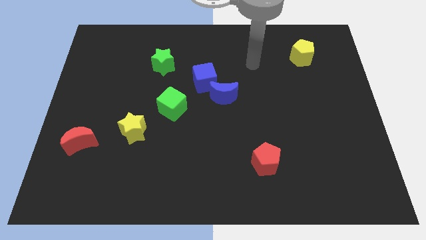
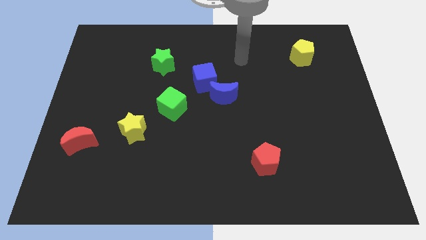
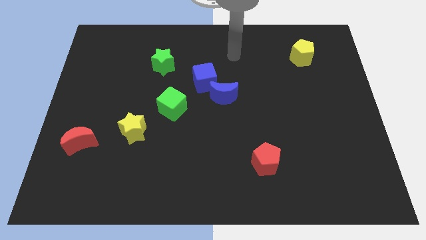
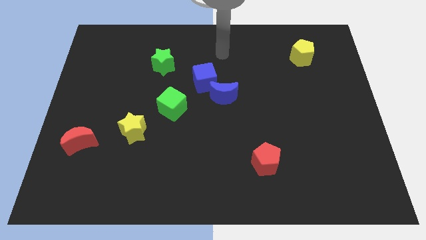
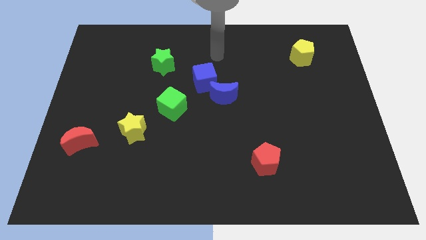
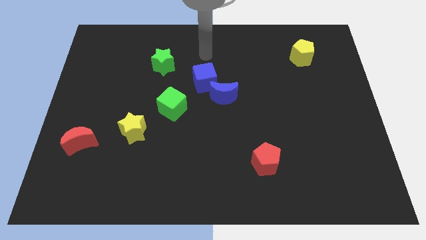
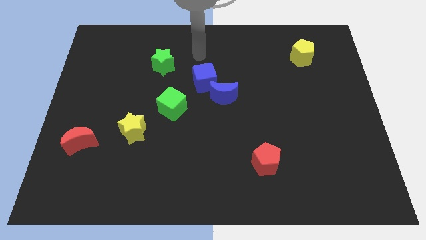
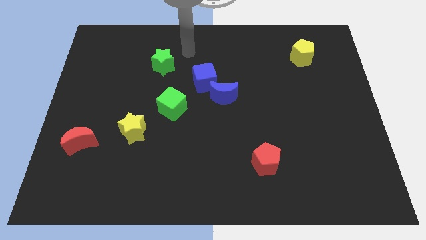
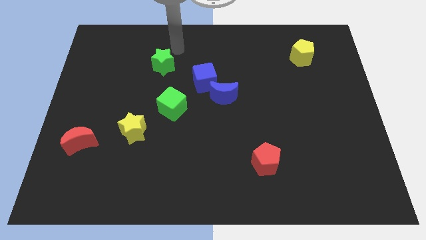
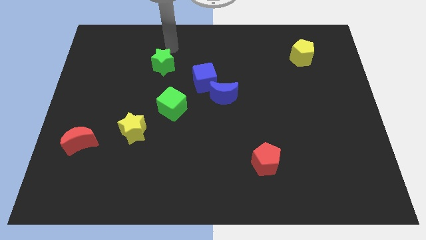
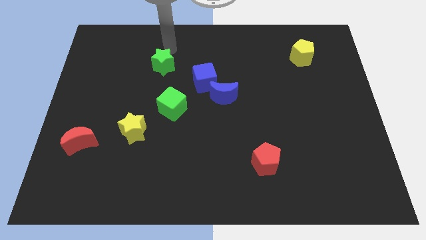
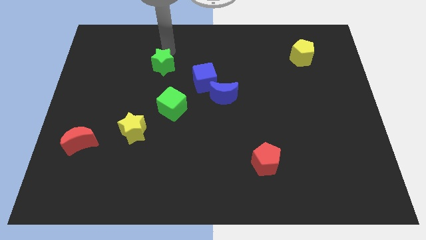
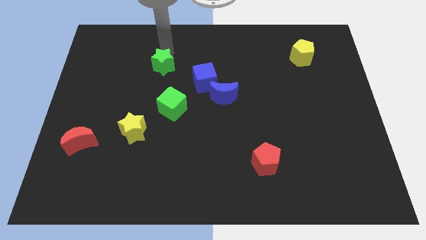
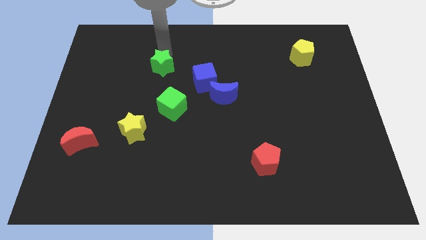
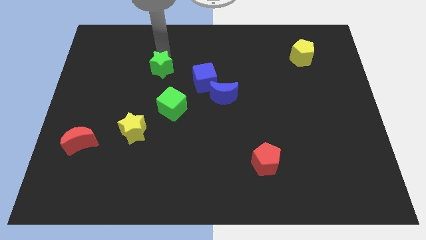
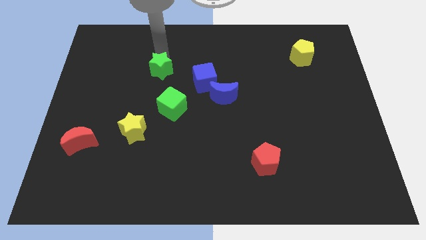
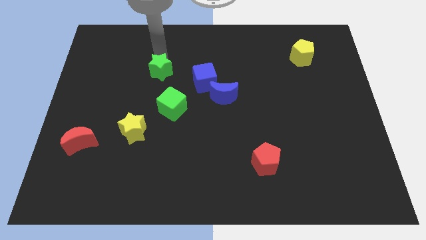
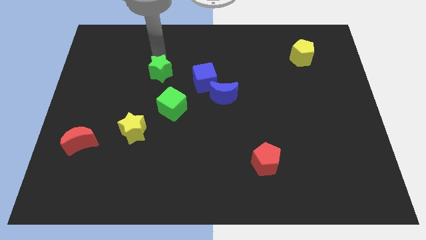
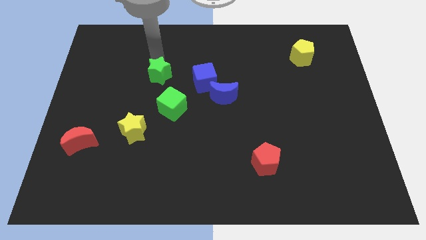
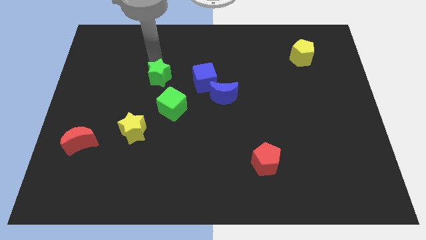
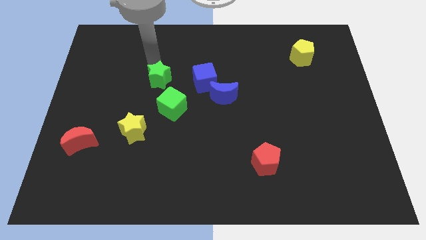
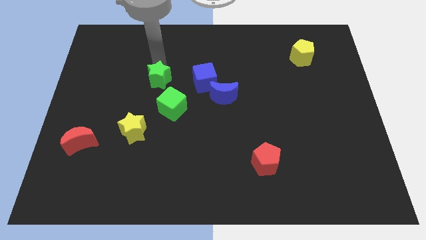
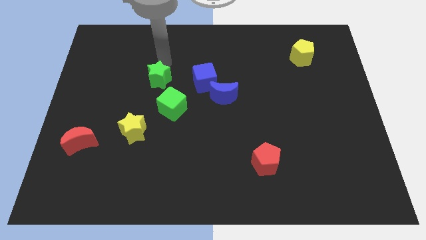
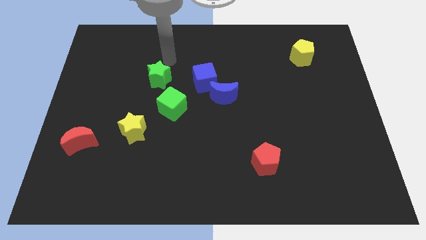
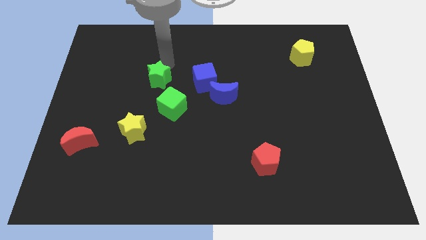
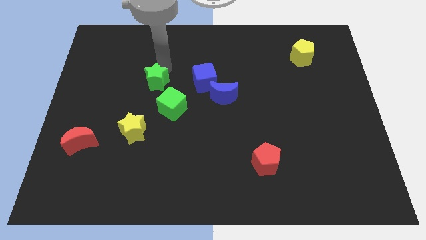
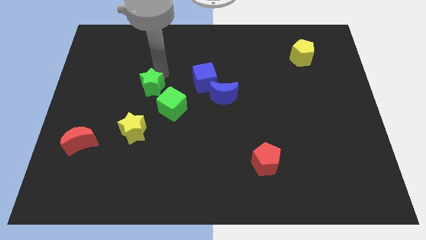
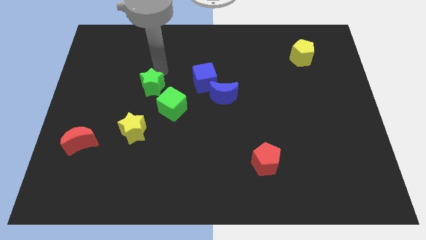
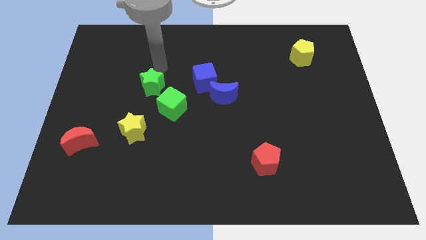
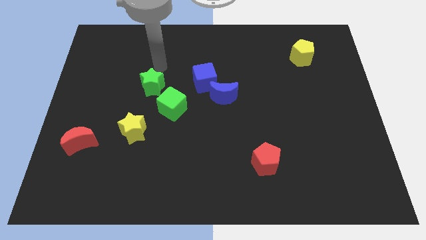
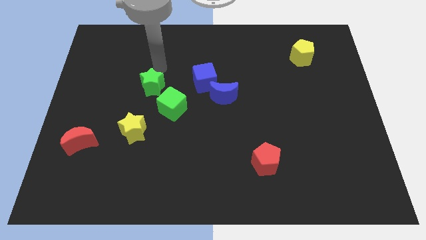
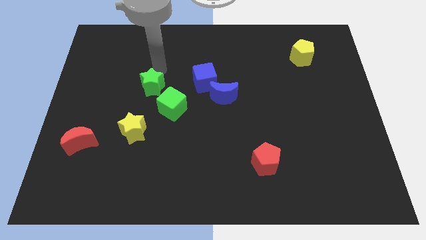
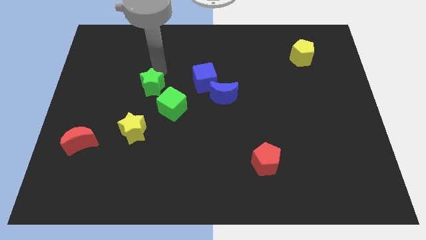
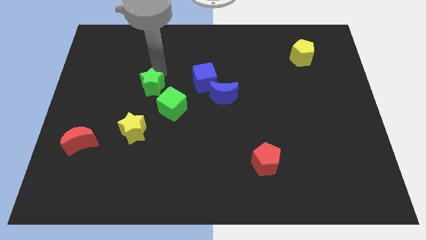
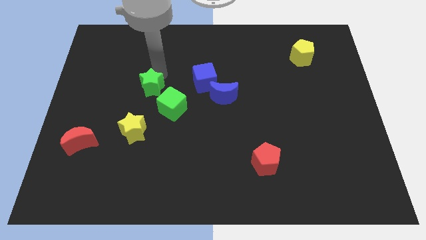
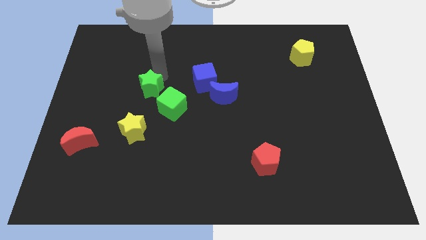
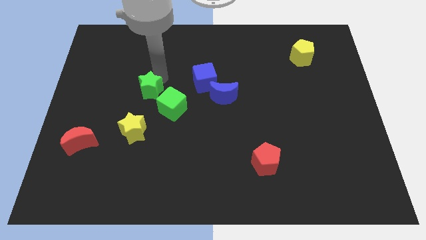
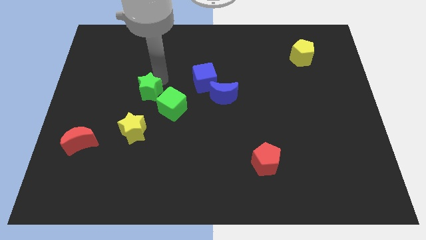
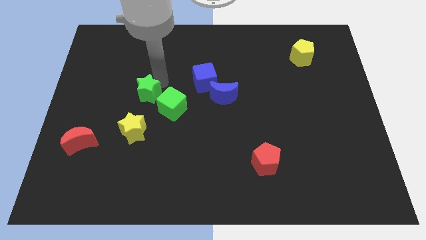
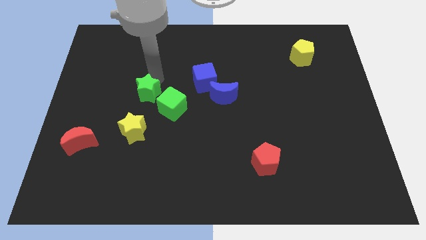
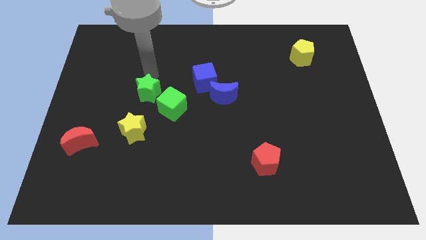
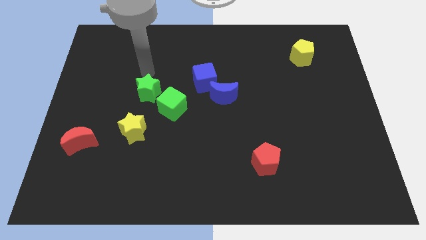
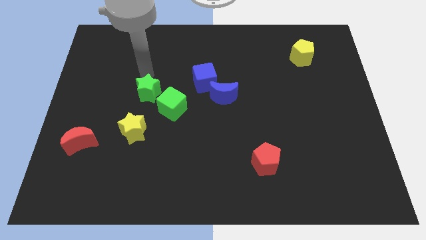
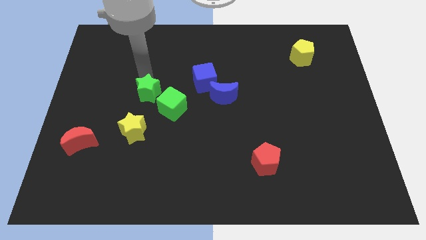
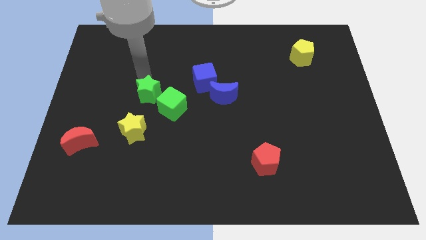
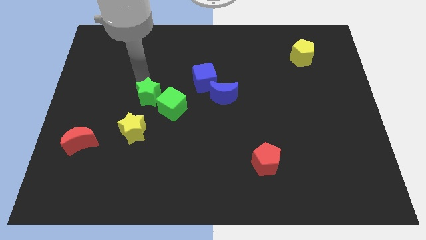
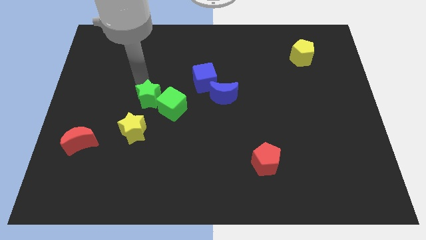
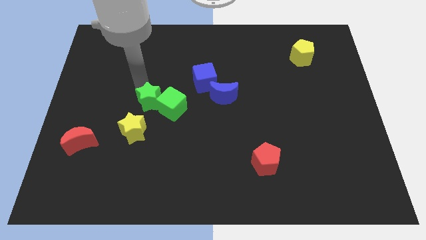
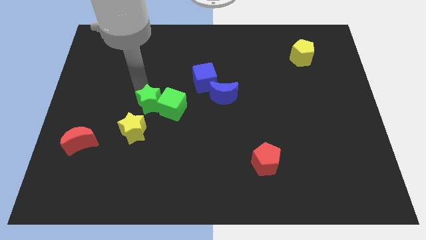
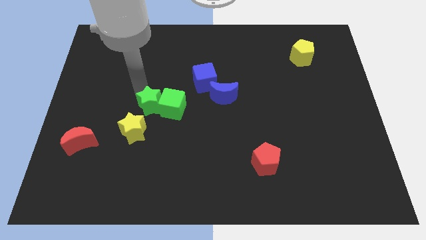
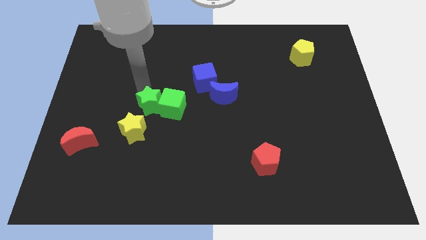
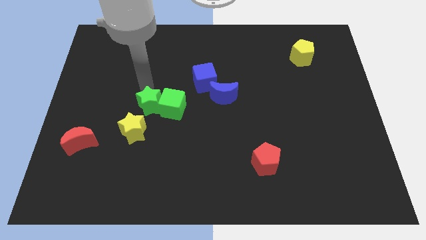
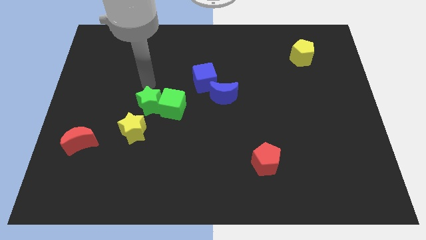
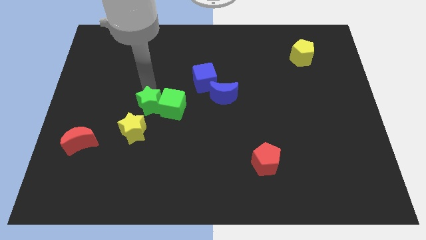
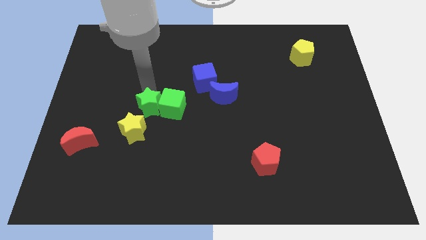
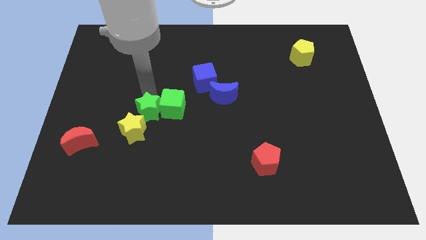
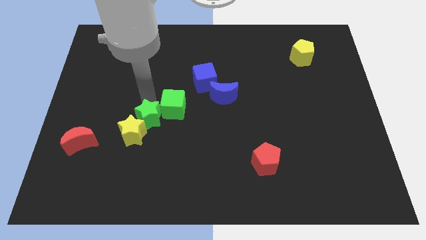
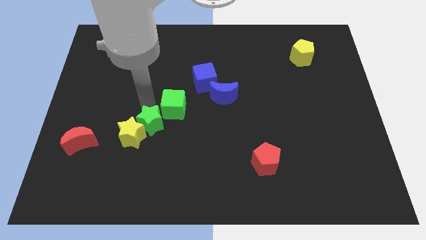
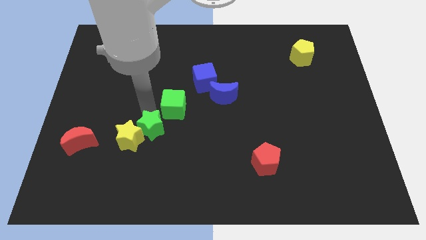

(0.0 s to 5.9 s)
move the green star down

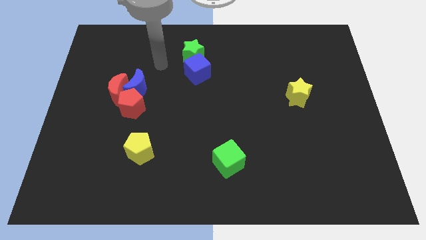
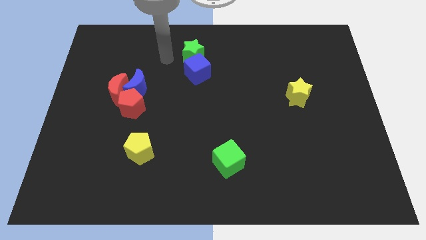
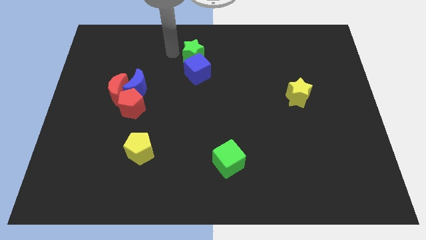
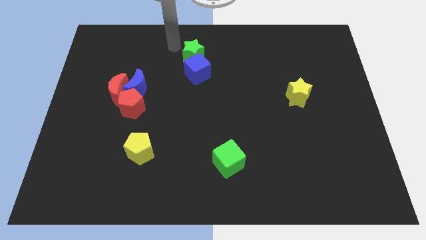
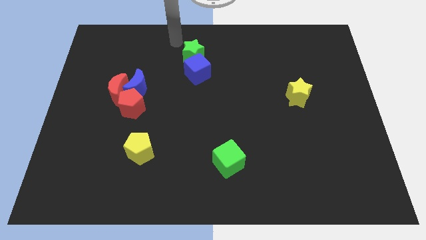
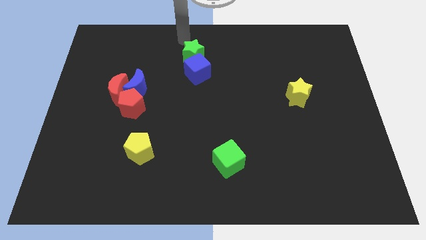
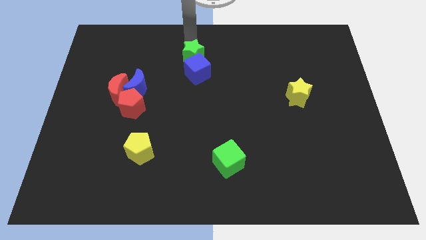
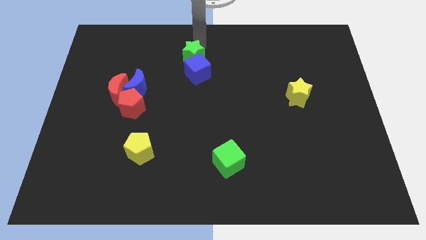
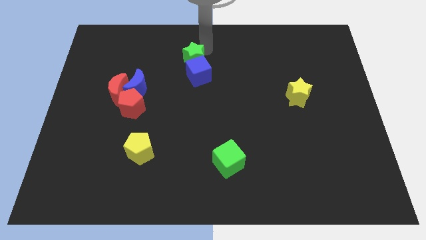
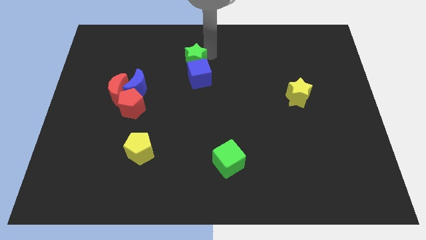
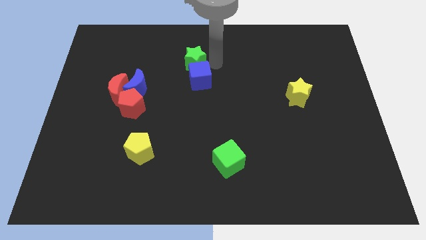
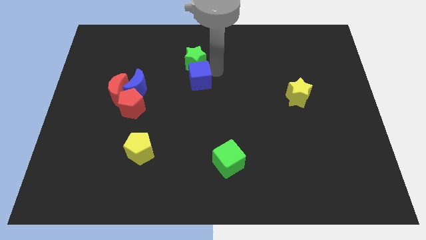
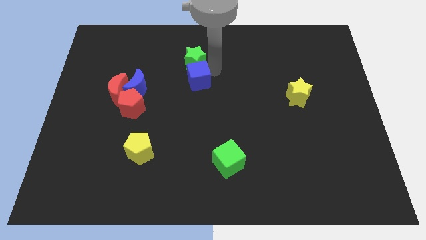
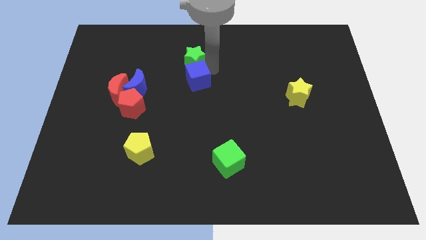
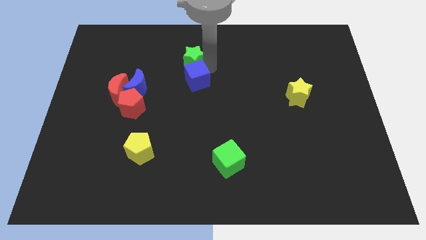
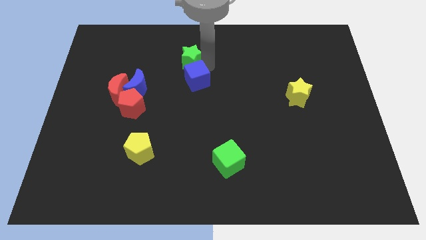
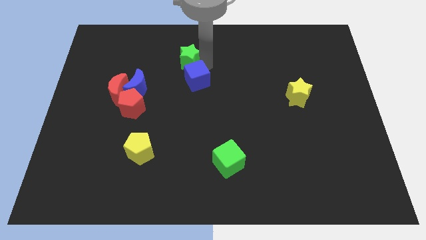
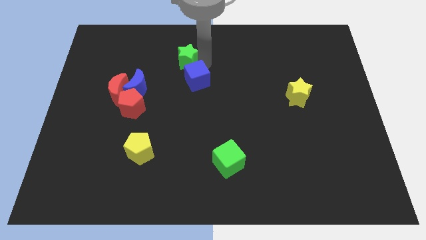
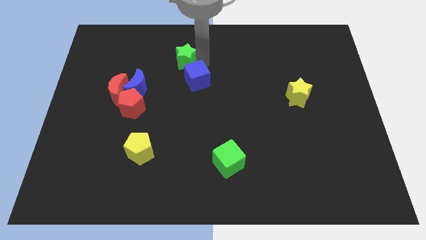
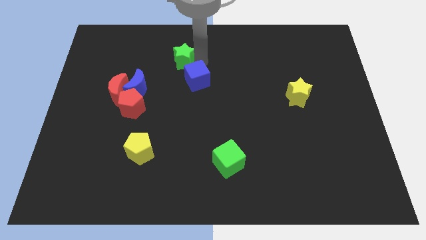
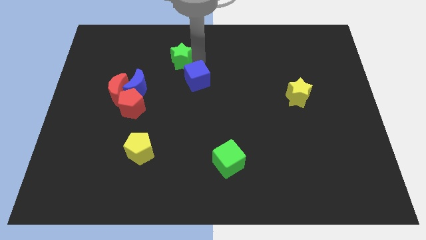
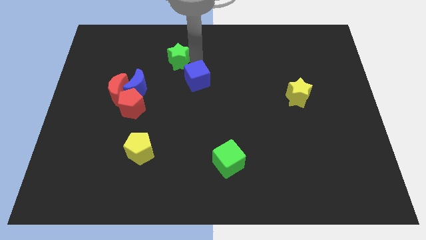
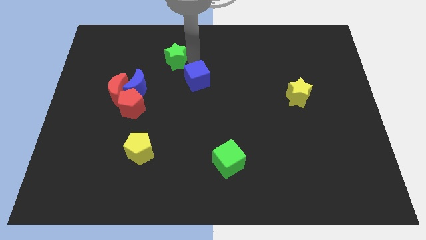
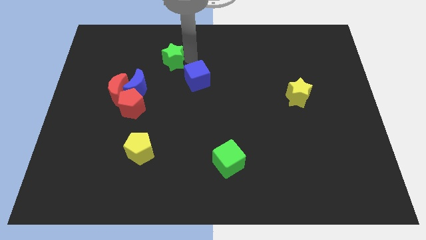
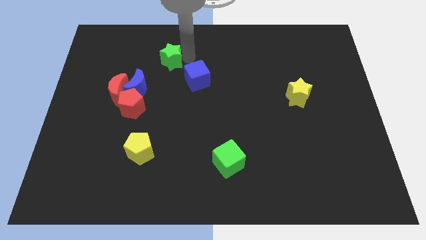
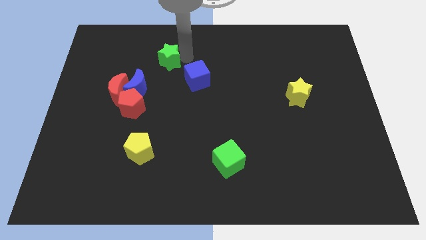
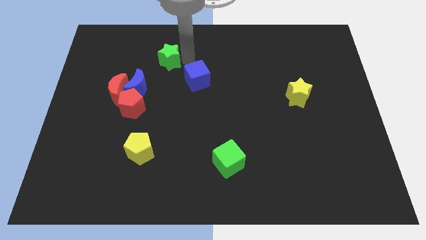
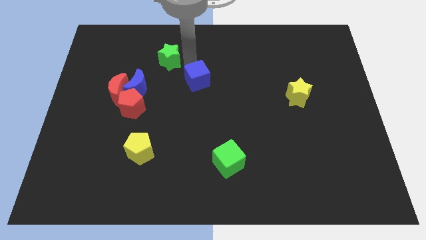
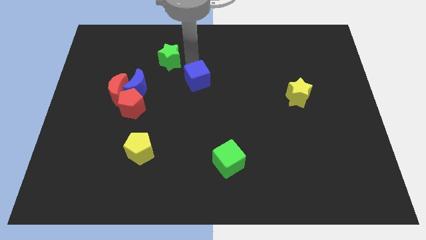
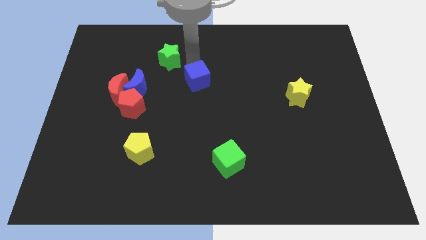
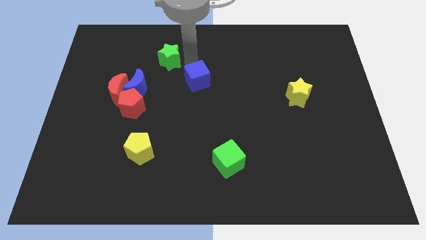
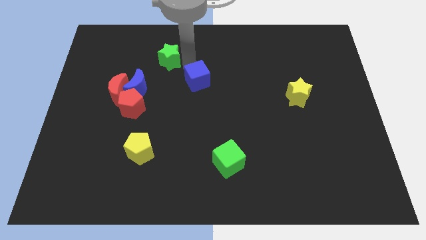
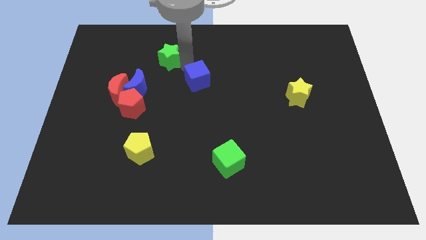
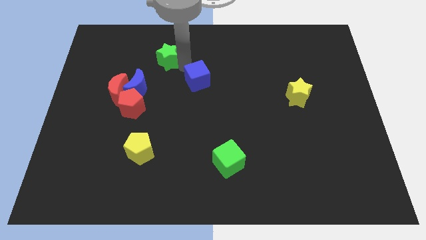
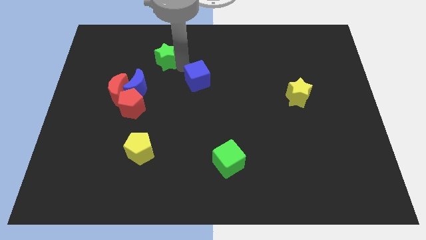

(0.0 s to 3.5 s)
push the green star a little to the left
